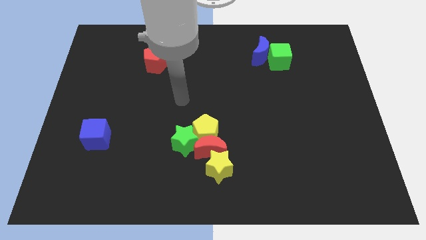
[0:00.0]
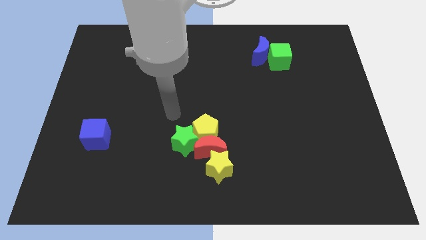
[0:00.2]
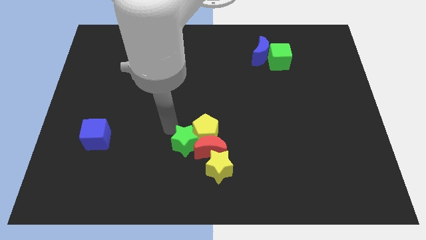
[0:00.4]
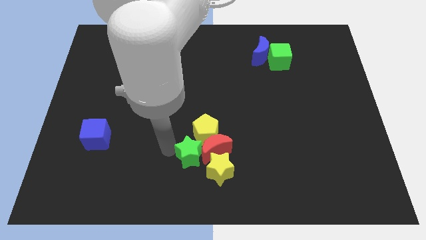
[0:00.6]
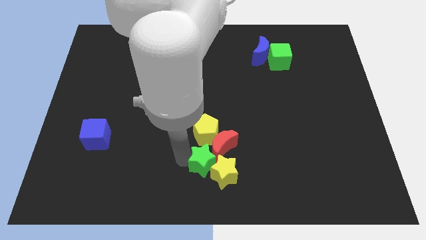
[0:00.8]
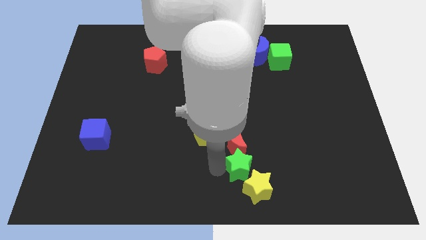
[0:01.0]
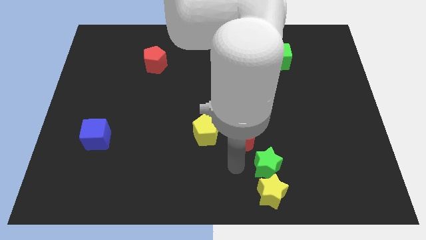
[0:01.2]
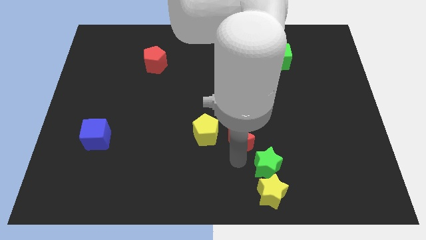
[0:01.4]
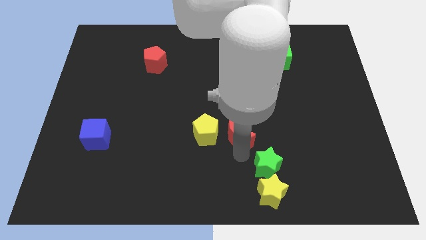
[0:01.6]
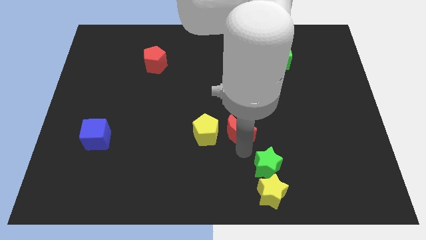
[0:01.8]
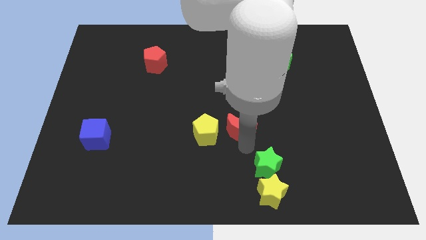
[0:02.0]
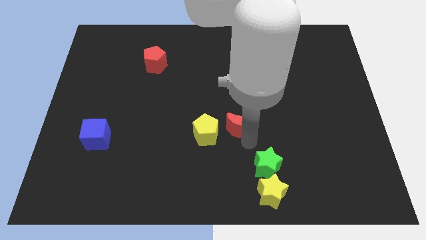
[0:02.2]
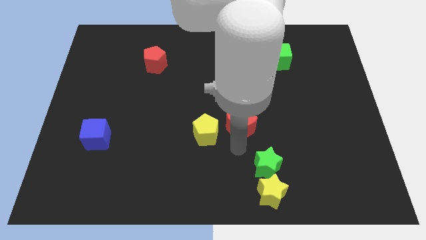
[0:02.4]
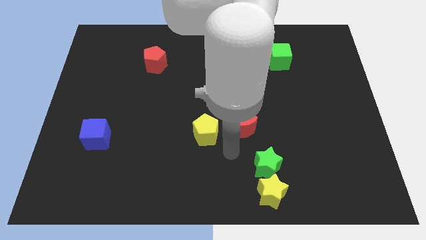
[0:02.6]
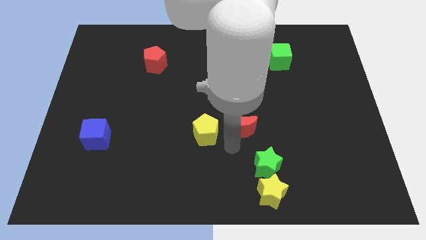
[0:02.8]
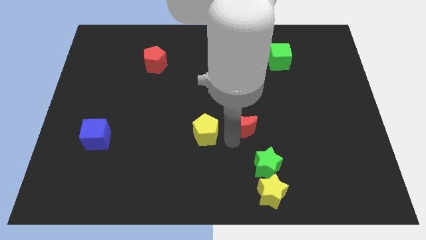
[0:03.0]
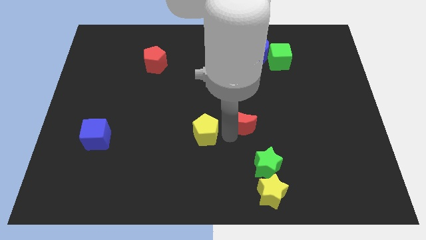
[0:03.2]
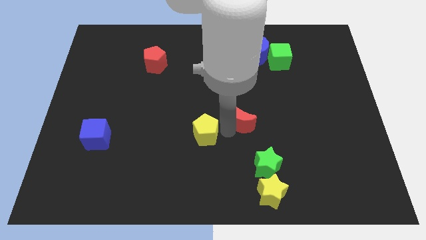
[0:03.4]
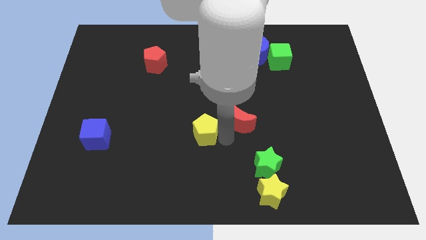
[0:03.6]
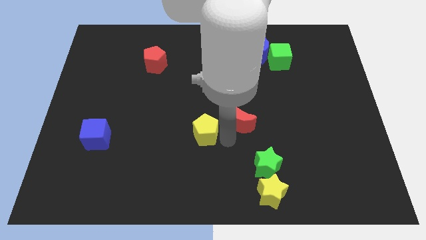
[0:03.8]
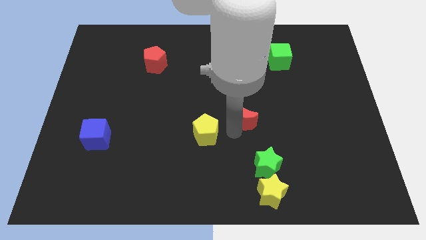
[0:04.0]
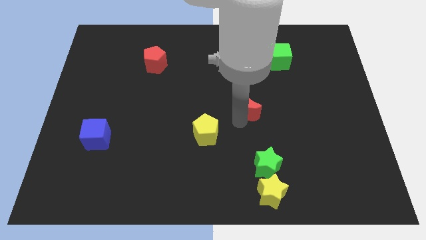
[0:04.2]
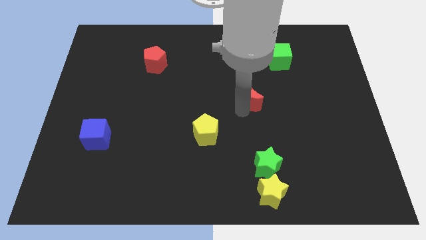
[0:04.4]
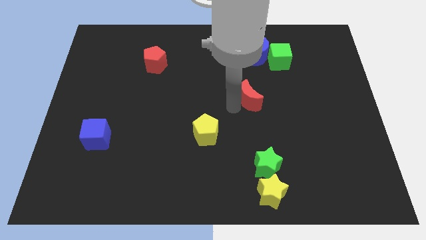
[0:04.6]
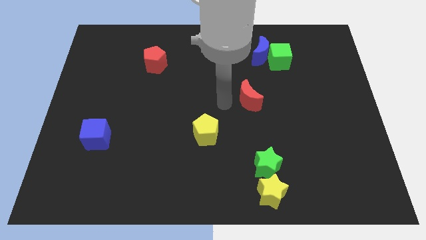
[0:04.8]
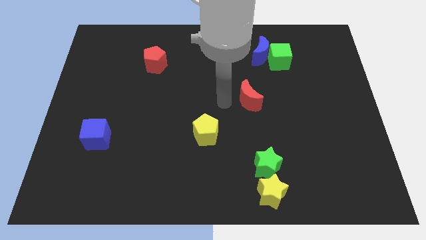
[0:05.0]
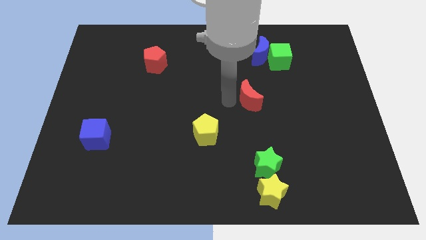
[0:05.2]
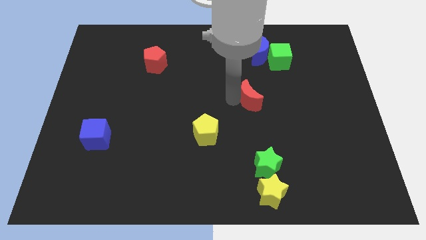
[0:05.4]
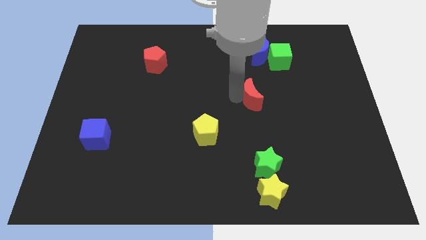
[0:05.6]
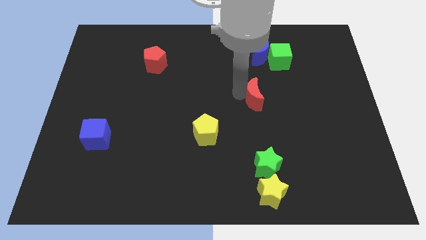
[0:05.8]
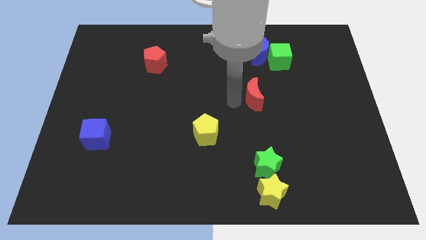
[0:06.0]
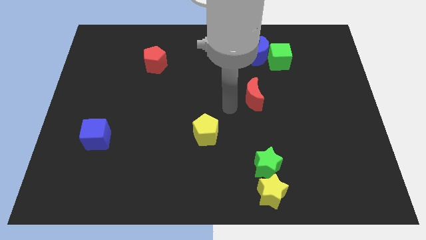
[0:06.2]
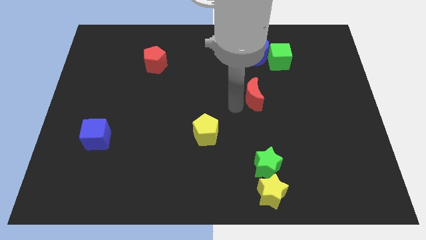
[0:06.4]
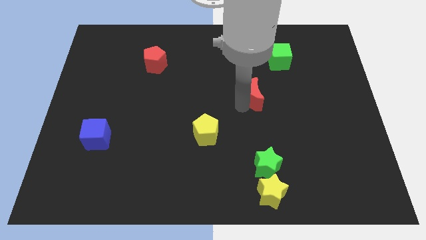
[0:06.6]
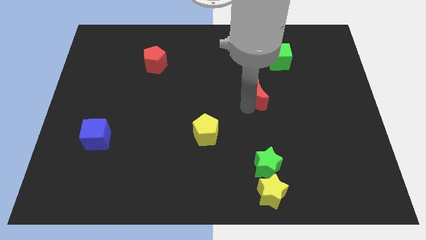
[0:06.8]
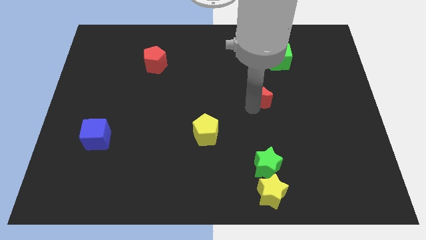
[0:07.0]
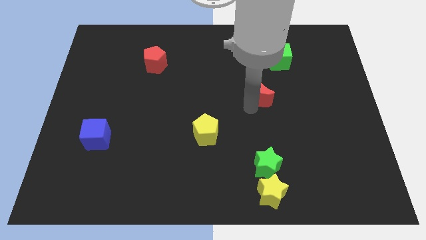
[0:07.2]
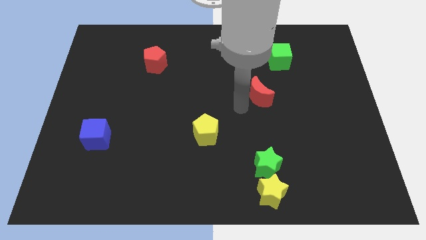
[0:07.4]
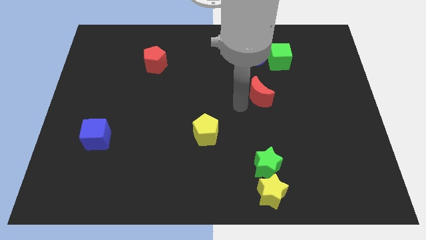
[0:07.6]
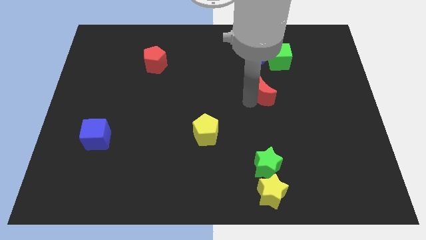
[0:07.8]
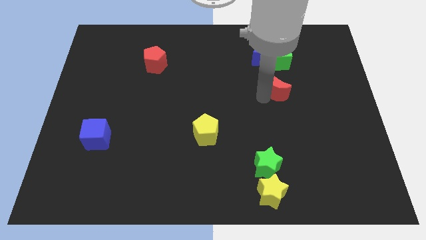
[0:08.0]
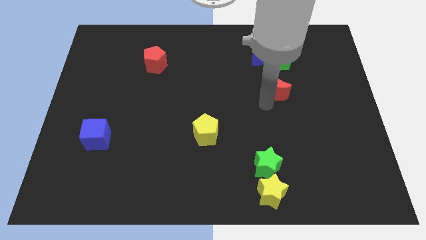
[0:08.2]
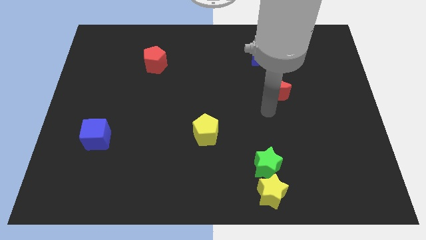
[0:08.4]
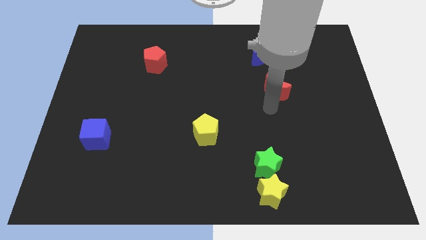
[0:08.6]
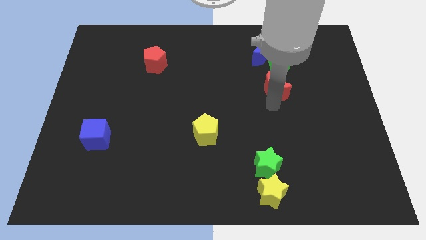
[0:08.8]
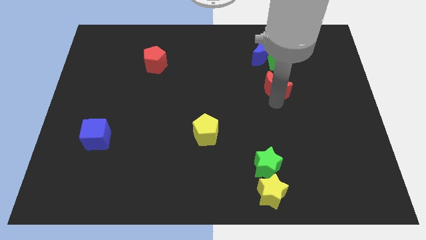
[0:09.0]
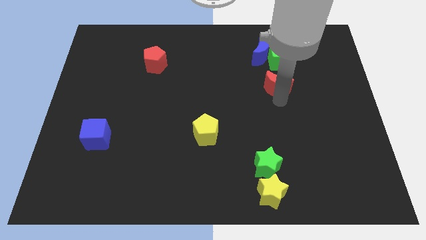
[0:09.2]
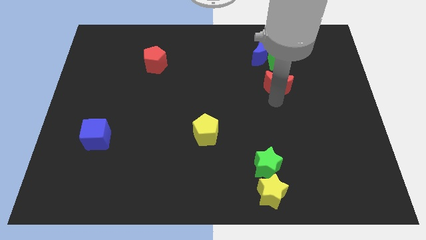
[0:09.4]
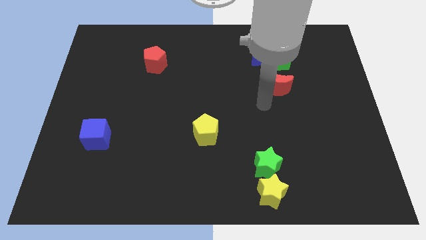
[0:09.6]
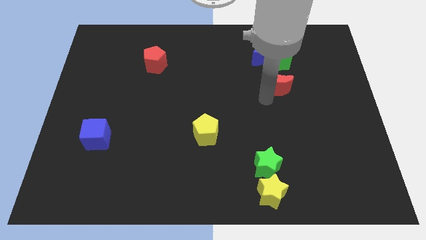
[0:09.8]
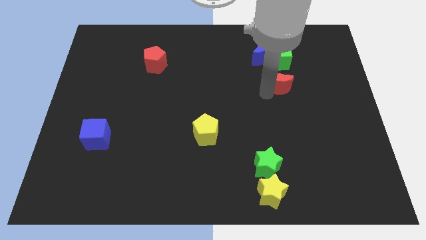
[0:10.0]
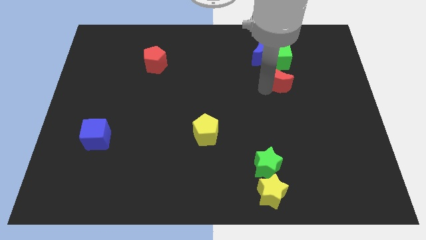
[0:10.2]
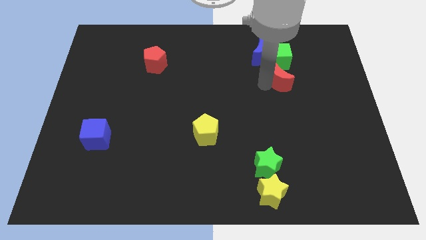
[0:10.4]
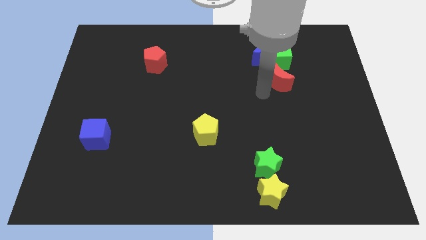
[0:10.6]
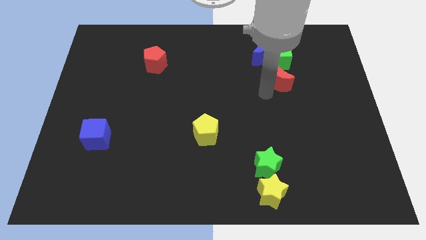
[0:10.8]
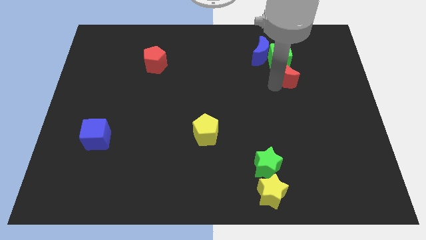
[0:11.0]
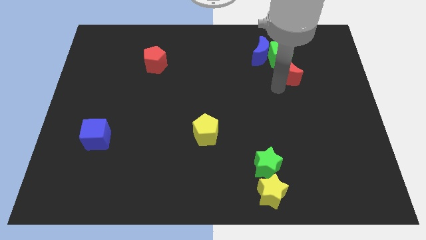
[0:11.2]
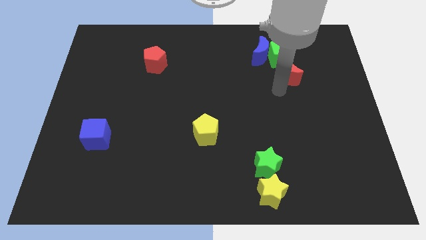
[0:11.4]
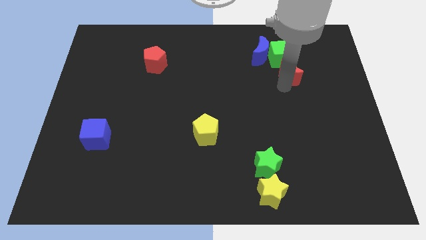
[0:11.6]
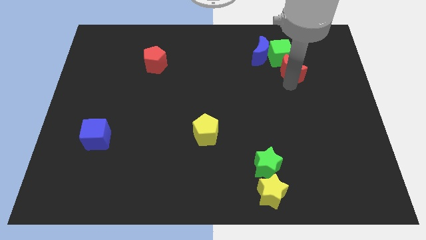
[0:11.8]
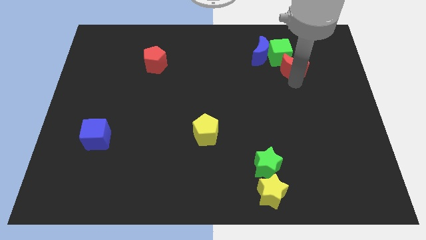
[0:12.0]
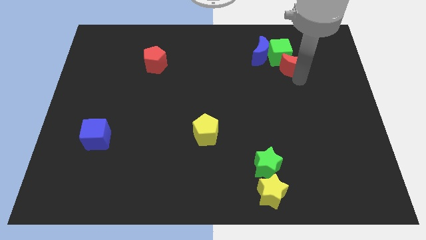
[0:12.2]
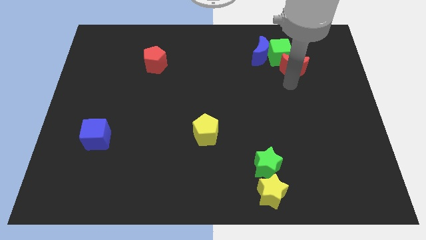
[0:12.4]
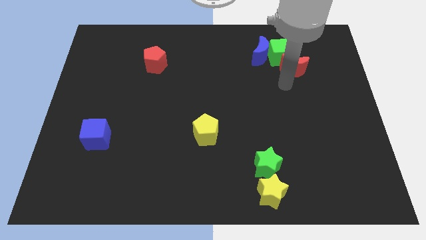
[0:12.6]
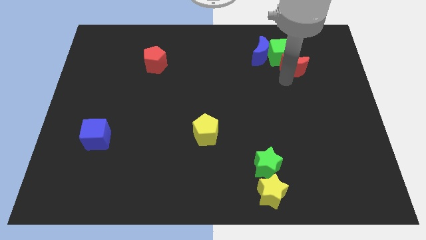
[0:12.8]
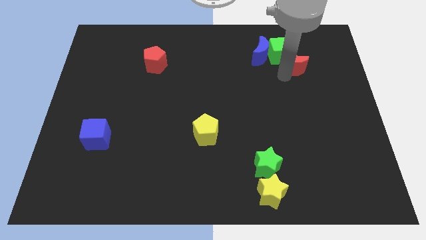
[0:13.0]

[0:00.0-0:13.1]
slide the red moon right of the blue moon
